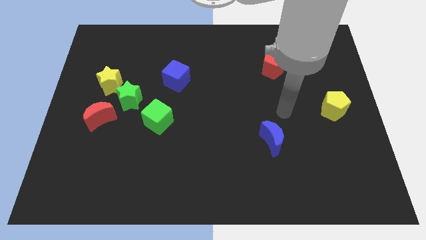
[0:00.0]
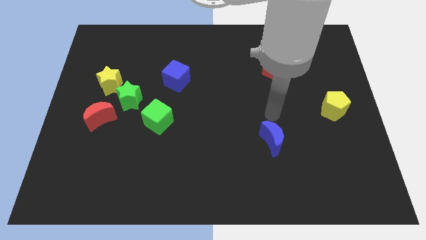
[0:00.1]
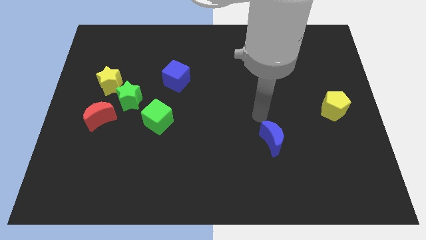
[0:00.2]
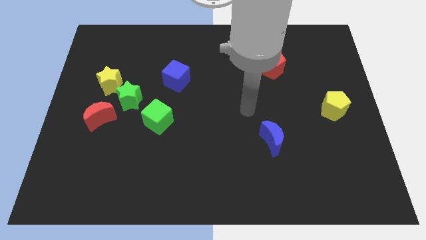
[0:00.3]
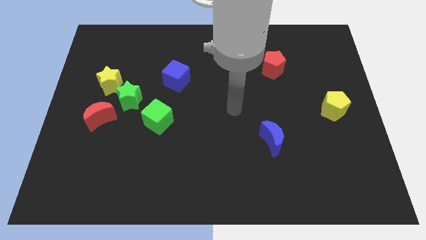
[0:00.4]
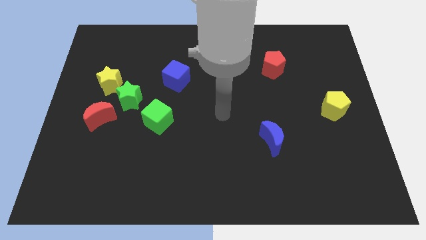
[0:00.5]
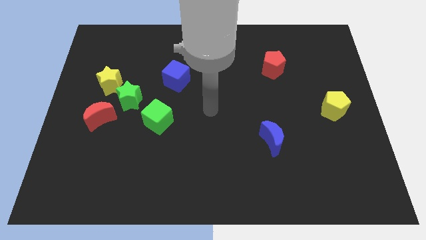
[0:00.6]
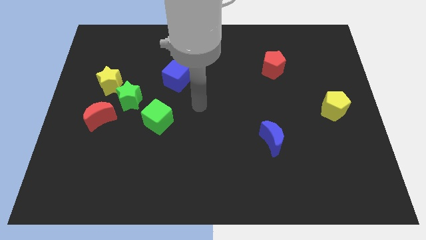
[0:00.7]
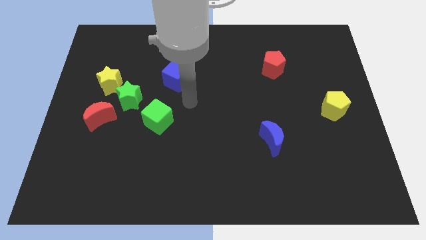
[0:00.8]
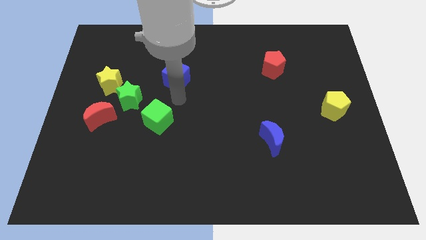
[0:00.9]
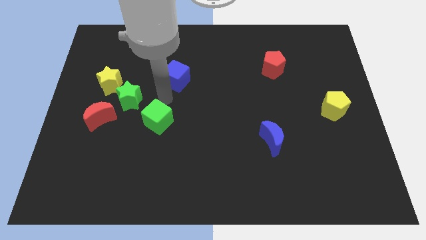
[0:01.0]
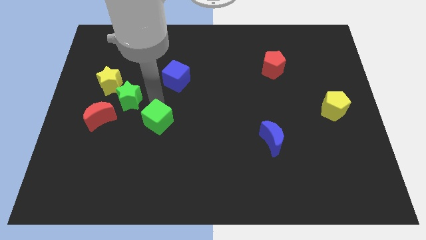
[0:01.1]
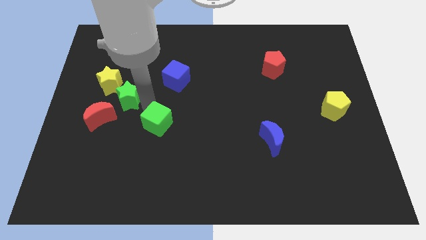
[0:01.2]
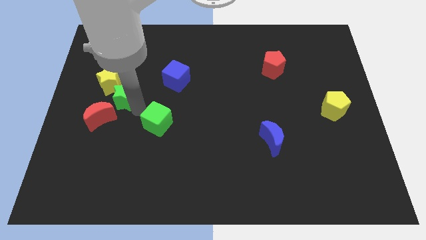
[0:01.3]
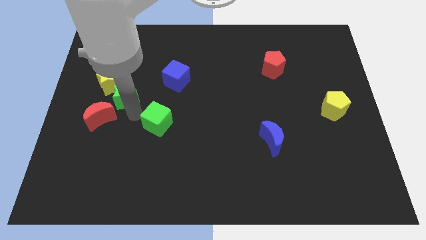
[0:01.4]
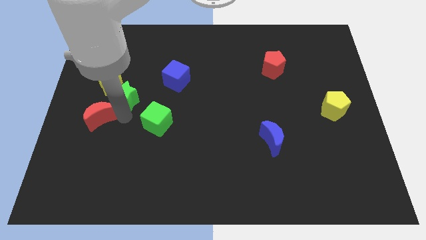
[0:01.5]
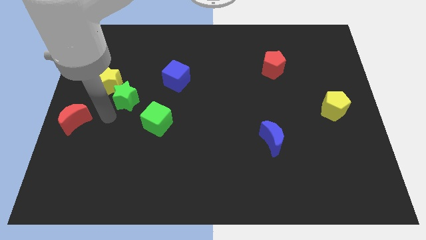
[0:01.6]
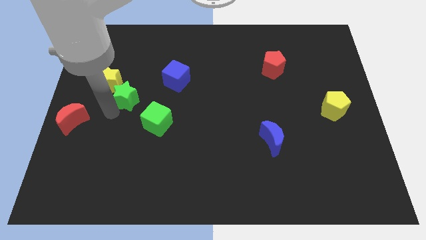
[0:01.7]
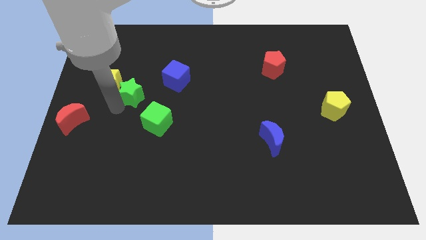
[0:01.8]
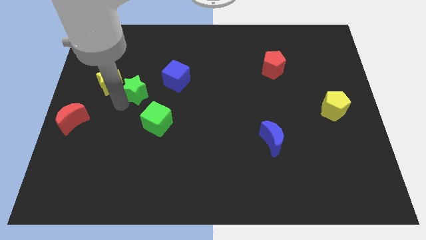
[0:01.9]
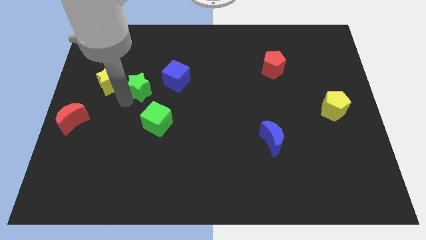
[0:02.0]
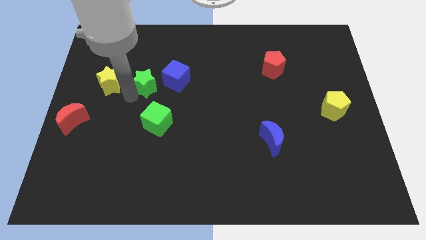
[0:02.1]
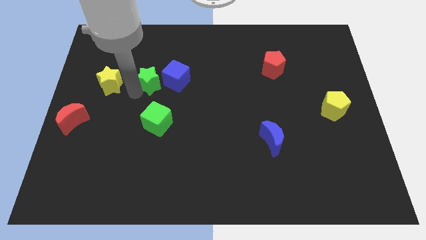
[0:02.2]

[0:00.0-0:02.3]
move the green star away from the yellow star, red moon, and green cube

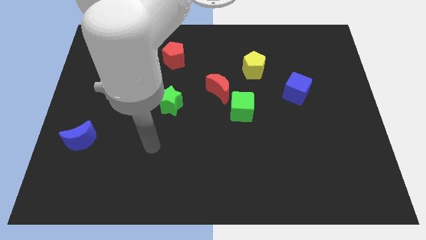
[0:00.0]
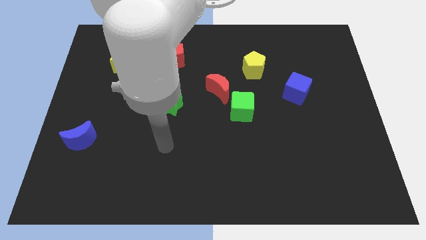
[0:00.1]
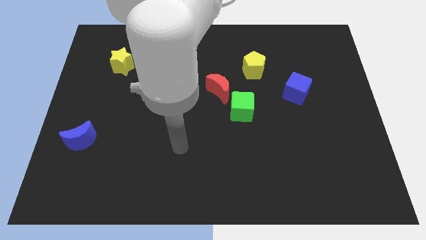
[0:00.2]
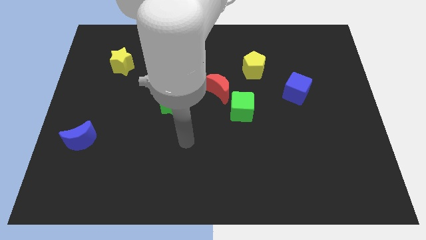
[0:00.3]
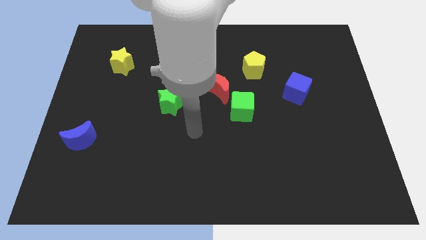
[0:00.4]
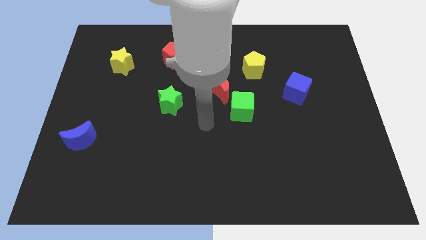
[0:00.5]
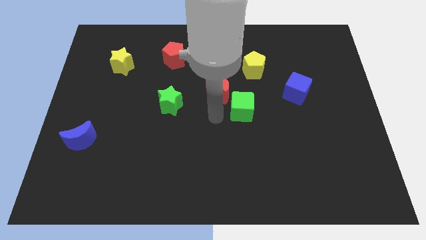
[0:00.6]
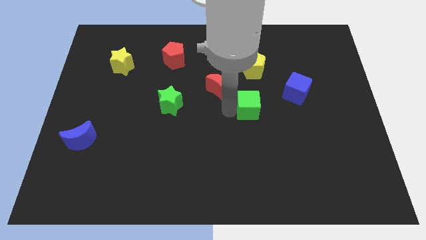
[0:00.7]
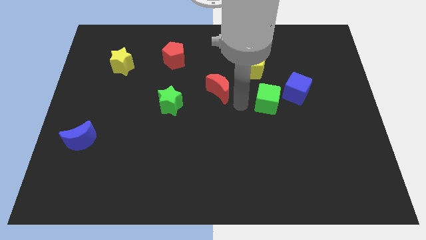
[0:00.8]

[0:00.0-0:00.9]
move the red moon away from the green cube

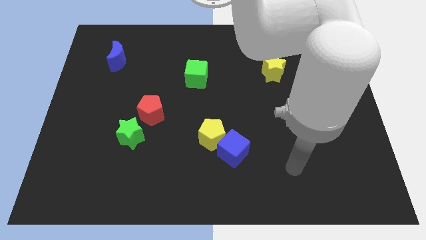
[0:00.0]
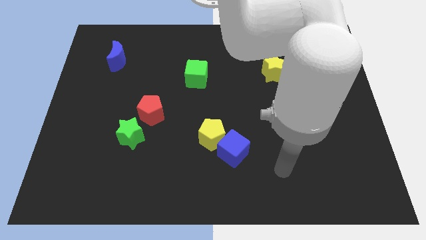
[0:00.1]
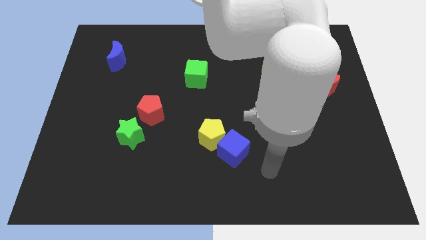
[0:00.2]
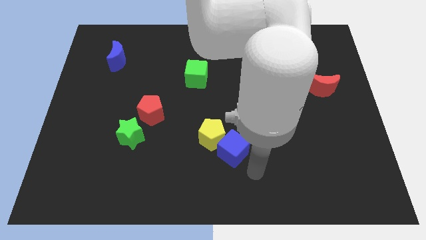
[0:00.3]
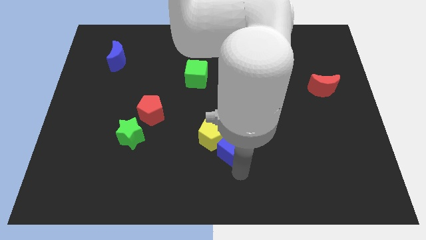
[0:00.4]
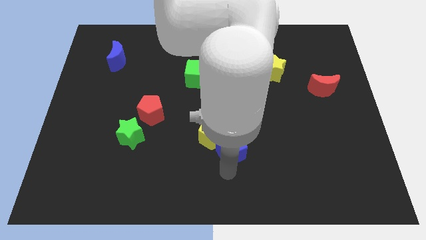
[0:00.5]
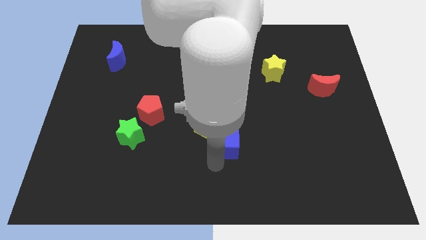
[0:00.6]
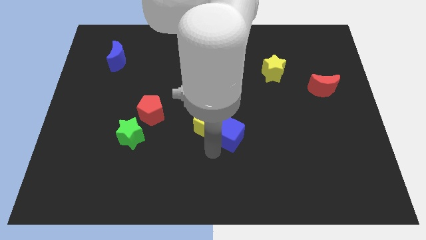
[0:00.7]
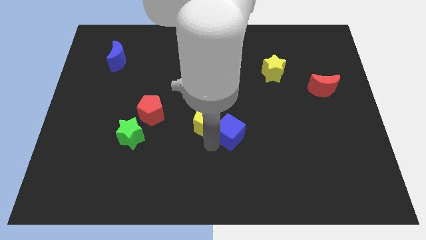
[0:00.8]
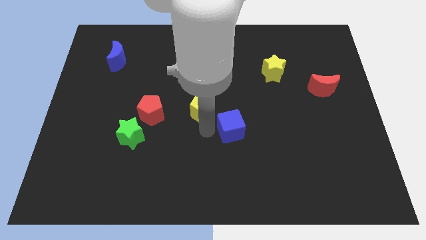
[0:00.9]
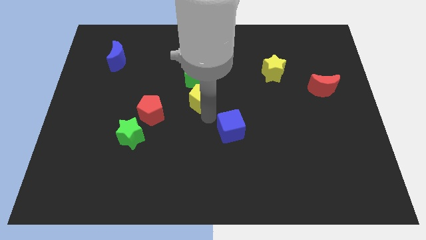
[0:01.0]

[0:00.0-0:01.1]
pull the blue cube apart from the yellow pentagon

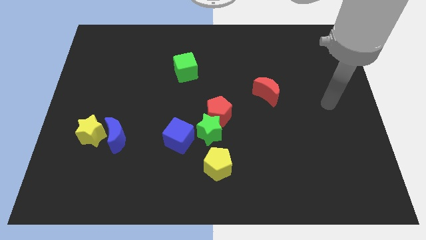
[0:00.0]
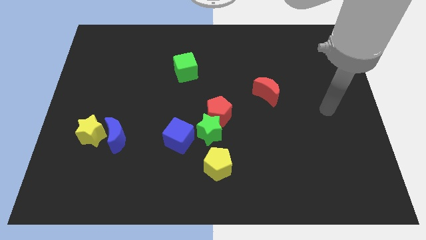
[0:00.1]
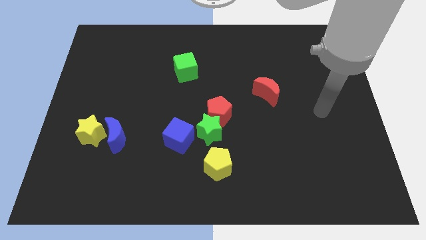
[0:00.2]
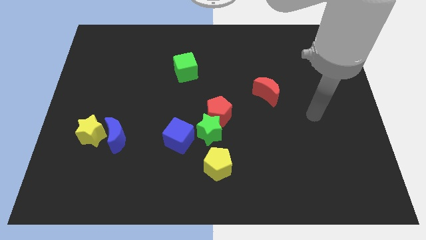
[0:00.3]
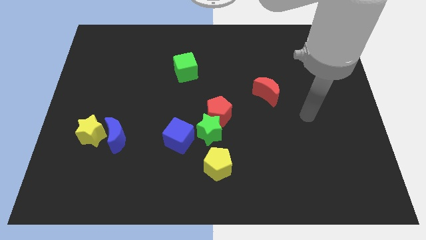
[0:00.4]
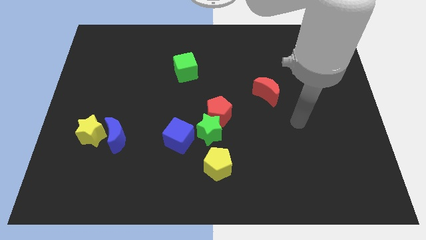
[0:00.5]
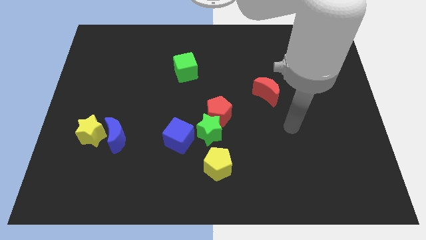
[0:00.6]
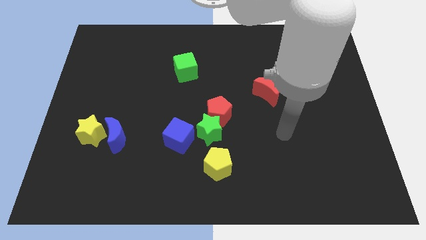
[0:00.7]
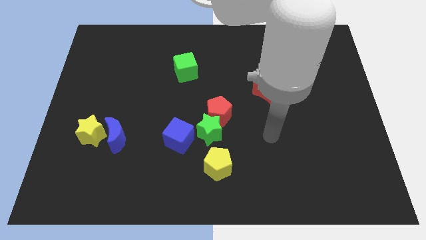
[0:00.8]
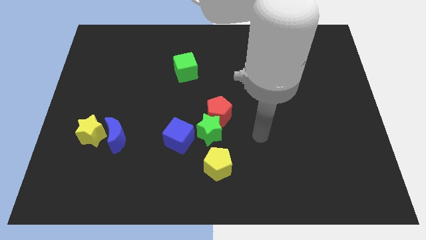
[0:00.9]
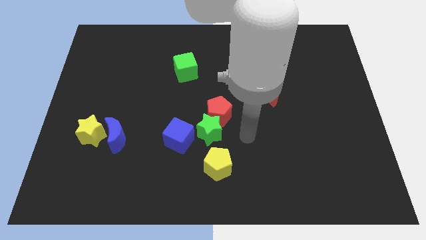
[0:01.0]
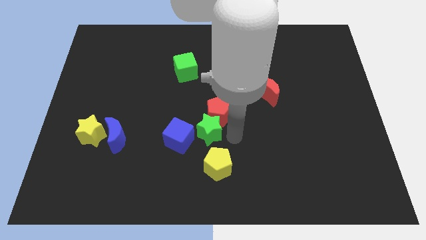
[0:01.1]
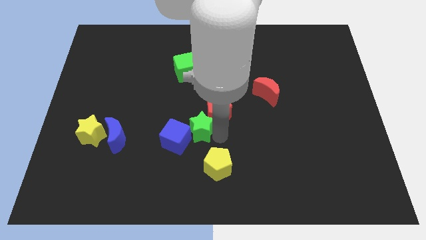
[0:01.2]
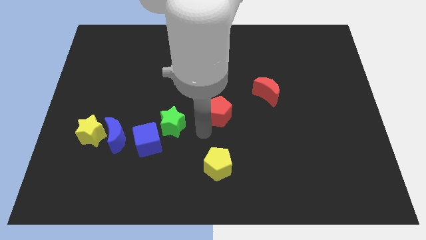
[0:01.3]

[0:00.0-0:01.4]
pull the red pentagon apart from the green star

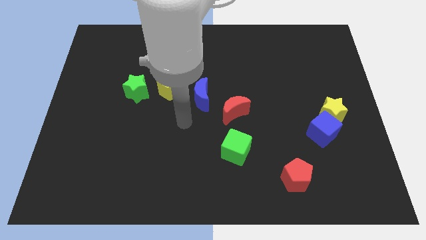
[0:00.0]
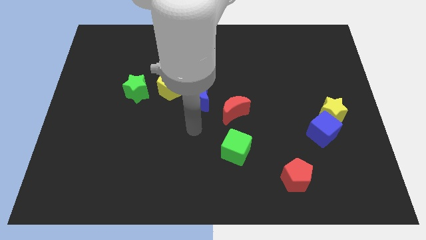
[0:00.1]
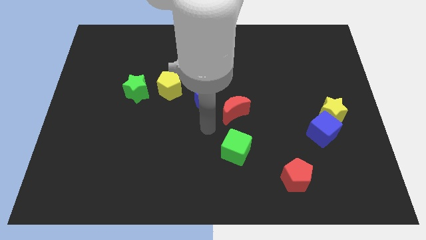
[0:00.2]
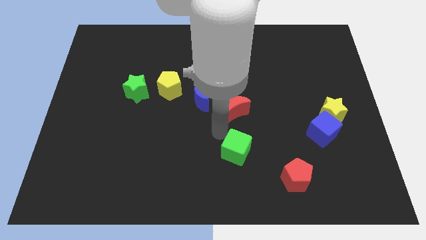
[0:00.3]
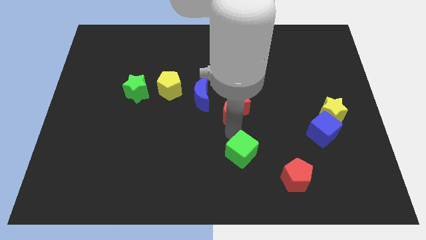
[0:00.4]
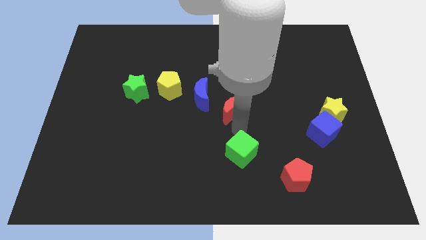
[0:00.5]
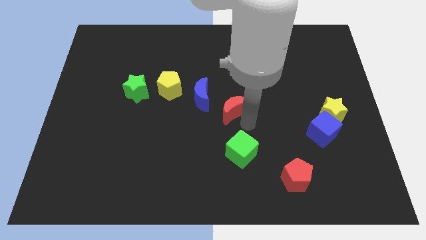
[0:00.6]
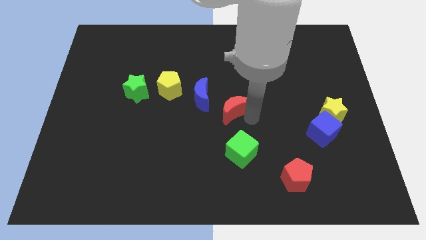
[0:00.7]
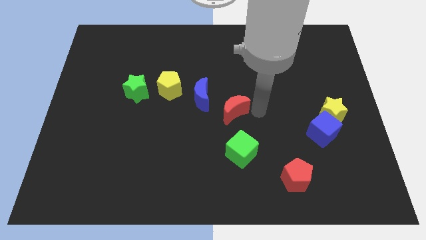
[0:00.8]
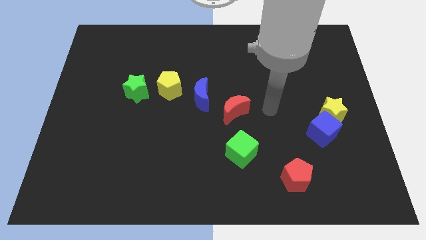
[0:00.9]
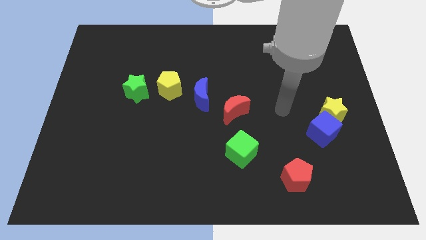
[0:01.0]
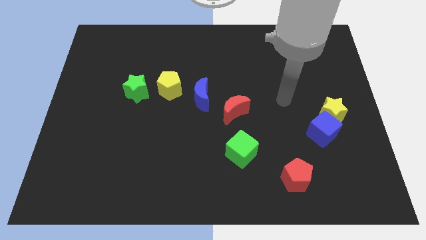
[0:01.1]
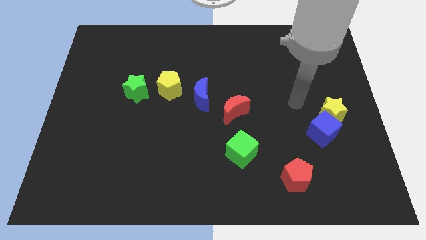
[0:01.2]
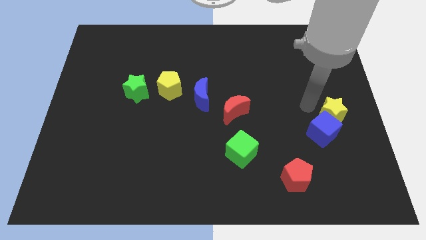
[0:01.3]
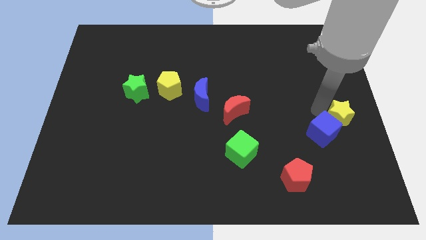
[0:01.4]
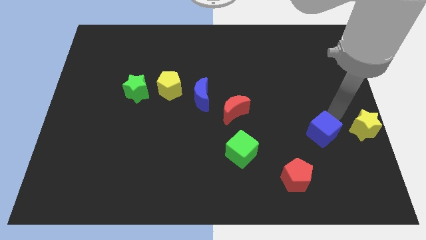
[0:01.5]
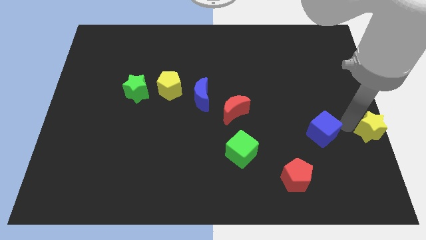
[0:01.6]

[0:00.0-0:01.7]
pull the blue cube apart from the yellow star

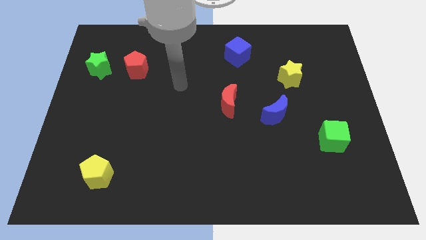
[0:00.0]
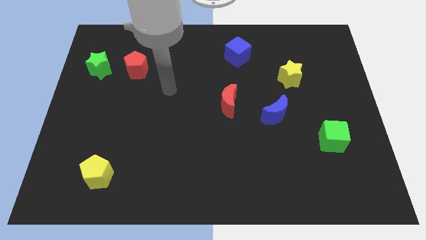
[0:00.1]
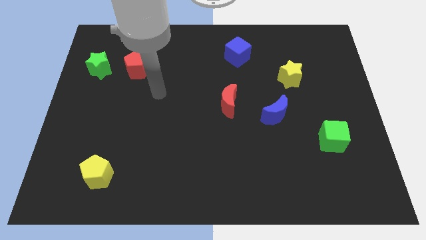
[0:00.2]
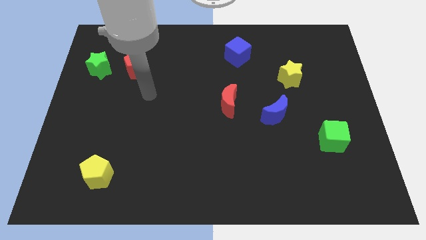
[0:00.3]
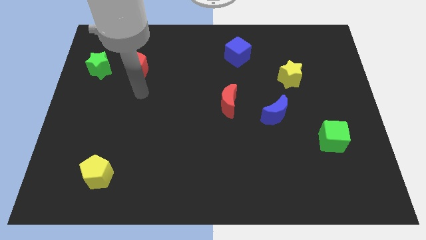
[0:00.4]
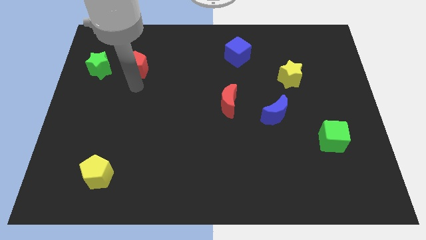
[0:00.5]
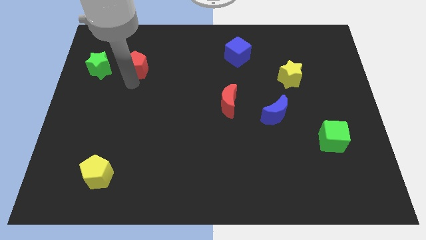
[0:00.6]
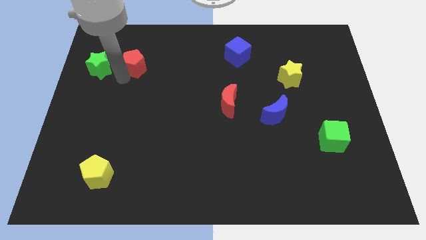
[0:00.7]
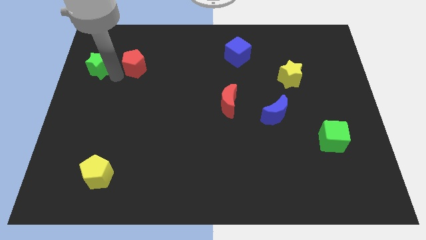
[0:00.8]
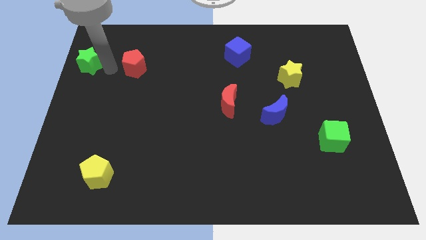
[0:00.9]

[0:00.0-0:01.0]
separate the red pentagon from the green star

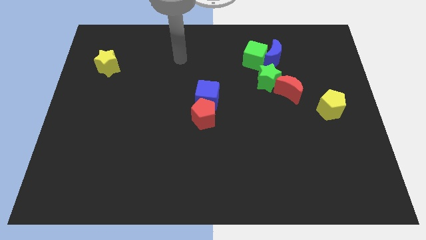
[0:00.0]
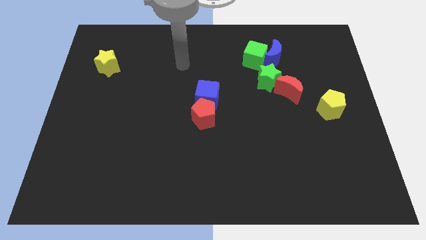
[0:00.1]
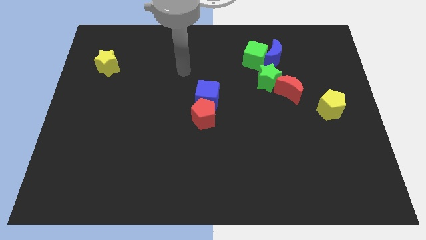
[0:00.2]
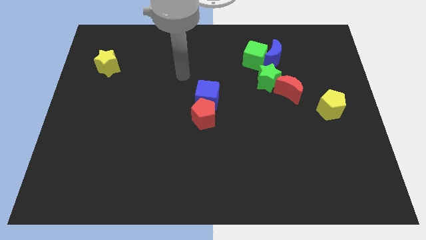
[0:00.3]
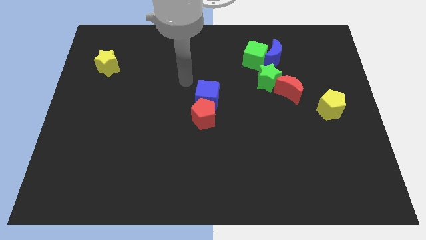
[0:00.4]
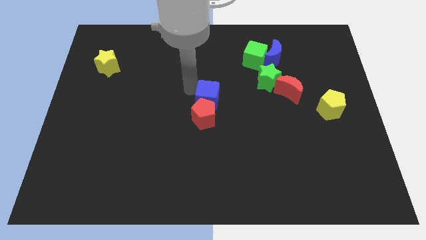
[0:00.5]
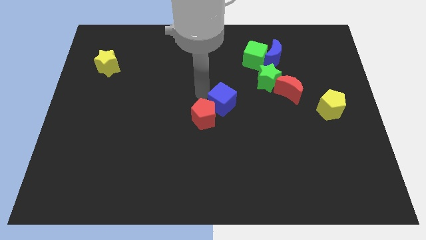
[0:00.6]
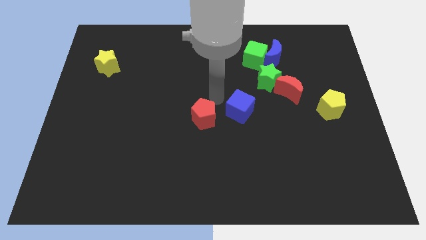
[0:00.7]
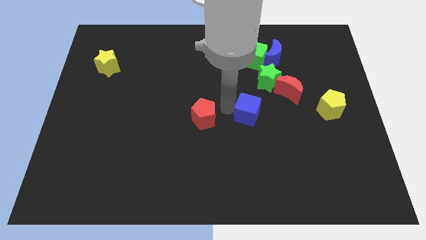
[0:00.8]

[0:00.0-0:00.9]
pull the red pentagon apart from the blue cube
